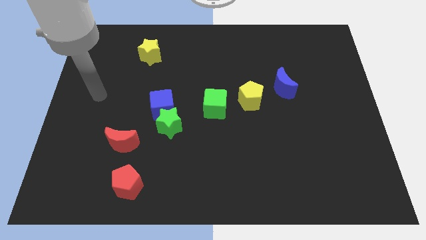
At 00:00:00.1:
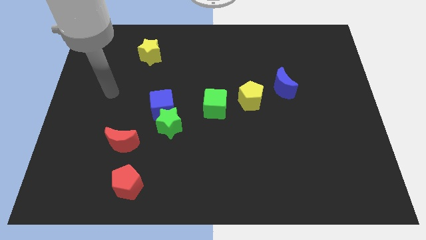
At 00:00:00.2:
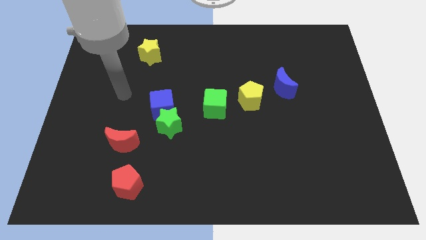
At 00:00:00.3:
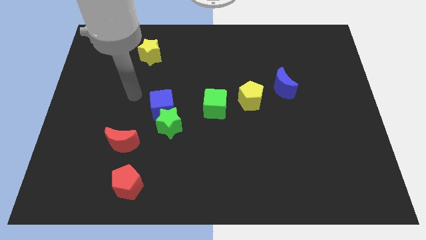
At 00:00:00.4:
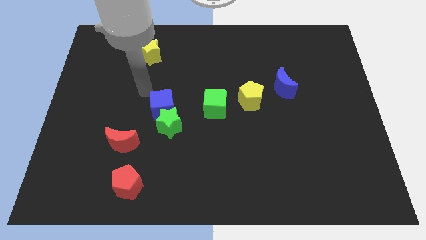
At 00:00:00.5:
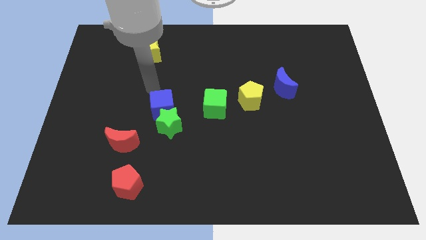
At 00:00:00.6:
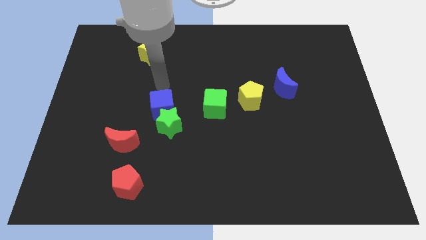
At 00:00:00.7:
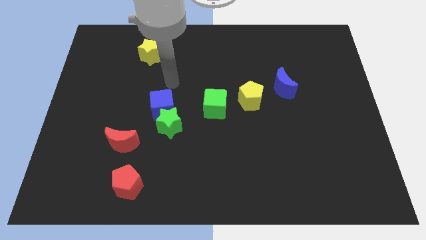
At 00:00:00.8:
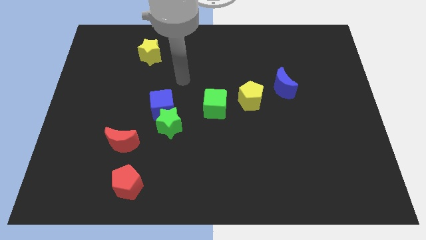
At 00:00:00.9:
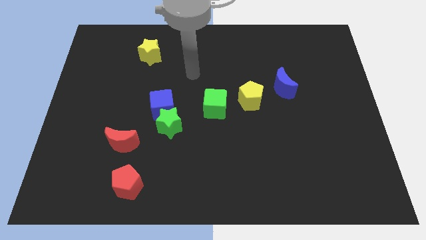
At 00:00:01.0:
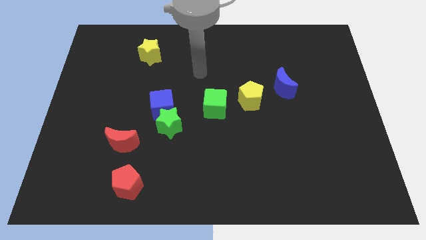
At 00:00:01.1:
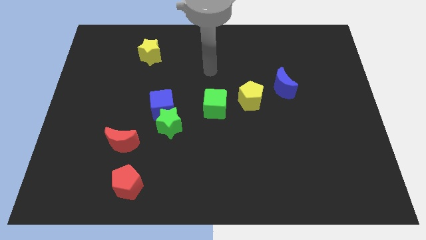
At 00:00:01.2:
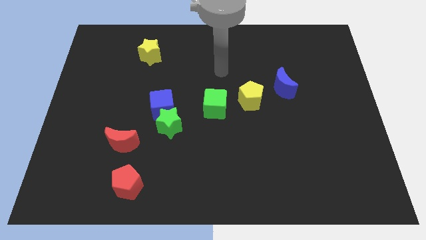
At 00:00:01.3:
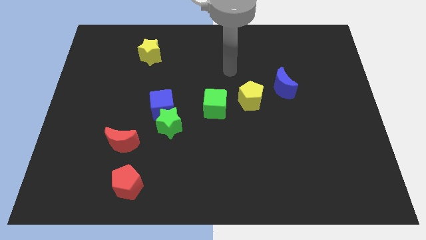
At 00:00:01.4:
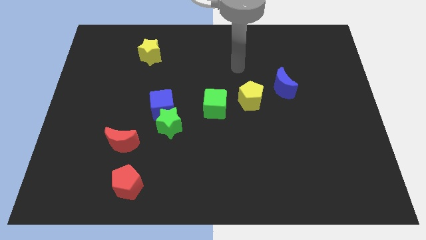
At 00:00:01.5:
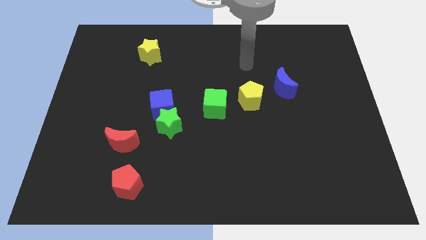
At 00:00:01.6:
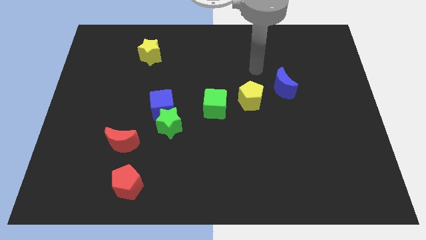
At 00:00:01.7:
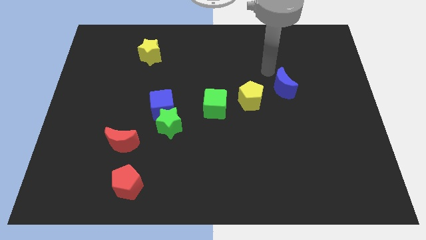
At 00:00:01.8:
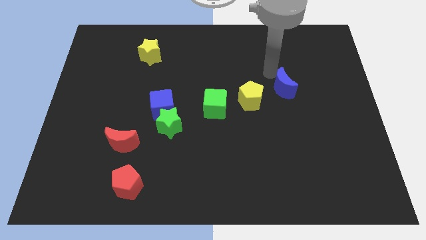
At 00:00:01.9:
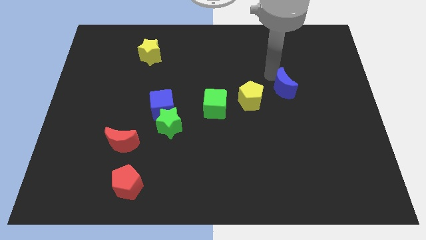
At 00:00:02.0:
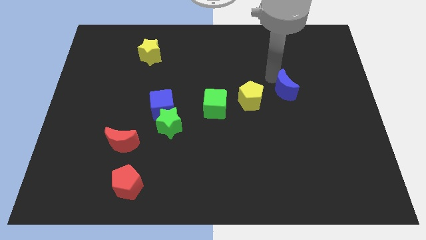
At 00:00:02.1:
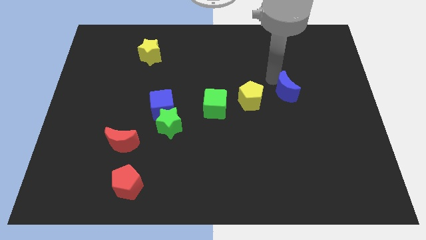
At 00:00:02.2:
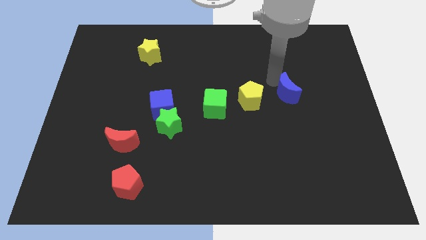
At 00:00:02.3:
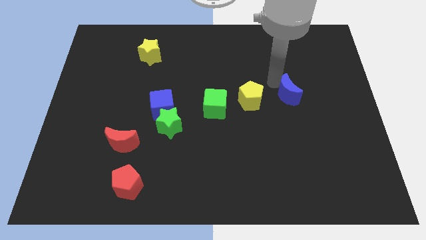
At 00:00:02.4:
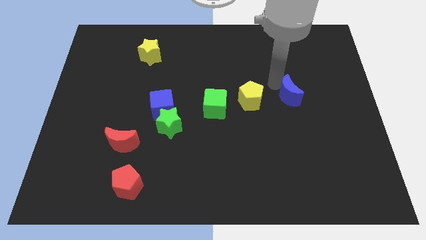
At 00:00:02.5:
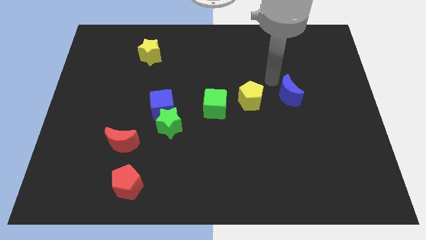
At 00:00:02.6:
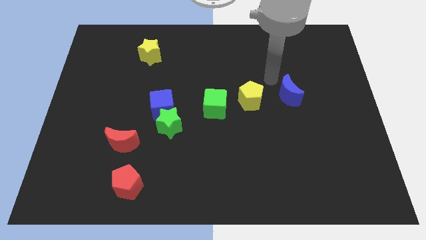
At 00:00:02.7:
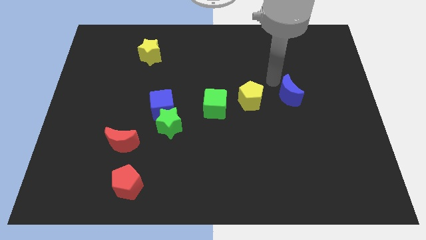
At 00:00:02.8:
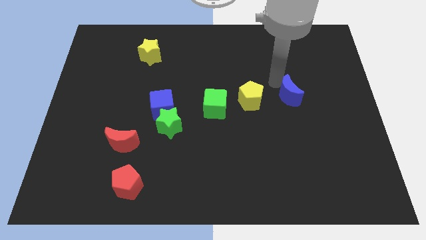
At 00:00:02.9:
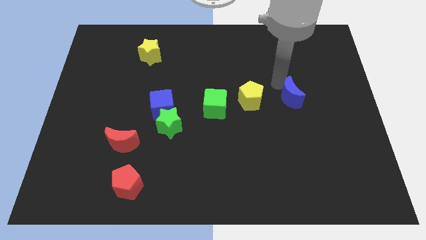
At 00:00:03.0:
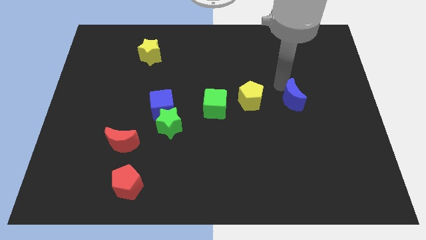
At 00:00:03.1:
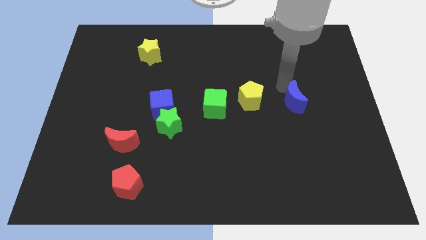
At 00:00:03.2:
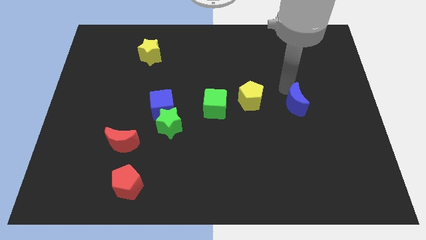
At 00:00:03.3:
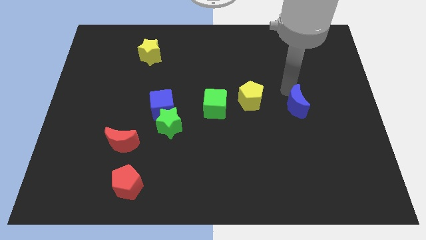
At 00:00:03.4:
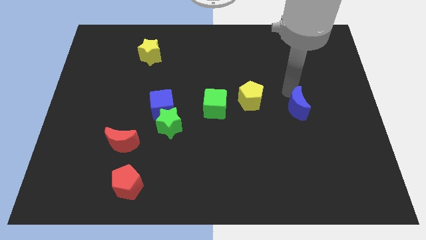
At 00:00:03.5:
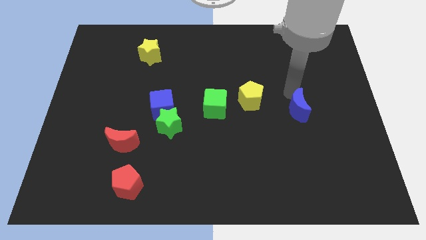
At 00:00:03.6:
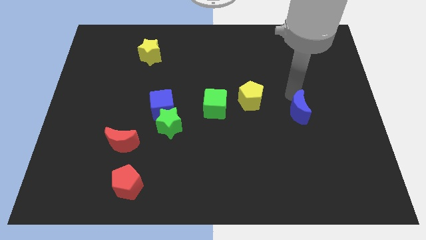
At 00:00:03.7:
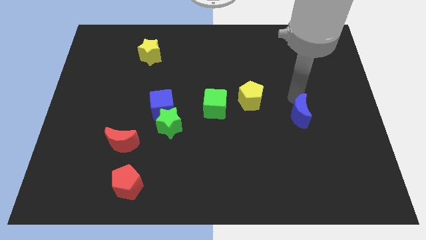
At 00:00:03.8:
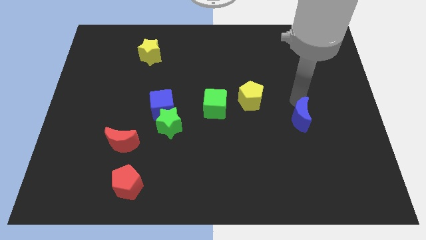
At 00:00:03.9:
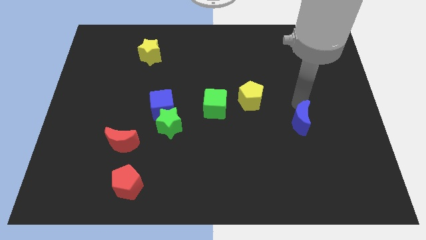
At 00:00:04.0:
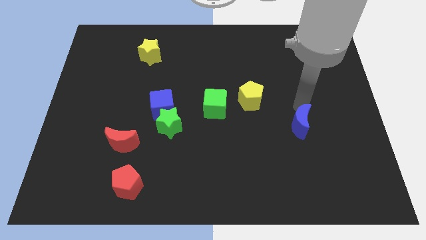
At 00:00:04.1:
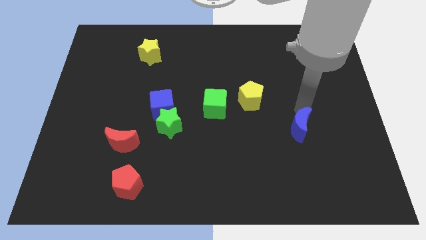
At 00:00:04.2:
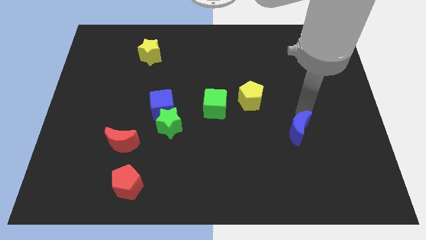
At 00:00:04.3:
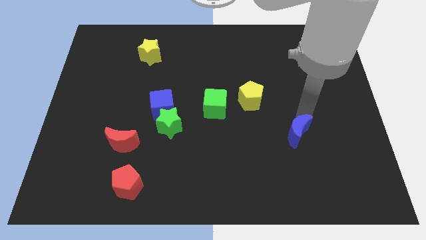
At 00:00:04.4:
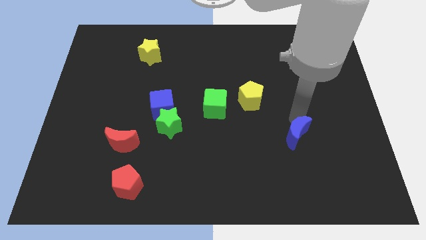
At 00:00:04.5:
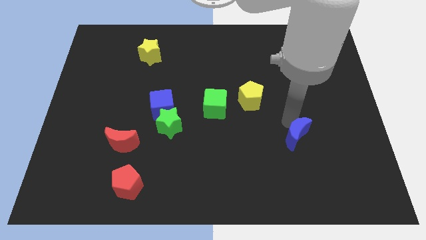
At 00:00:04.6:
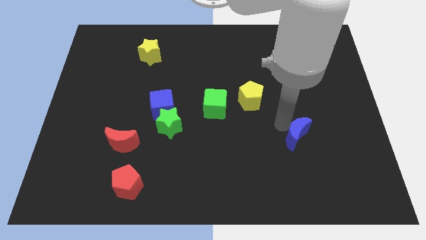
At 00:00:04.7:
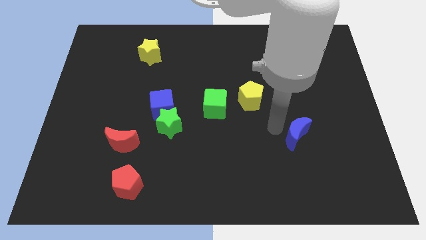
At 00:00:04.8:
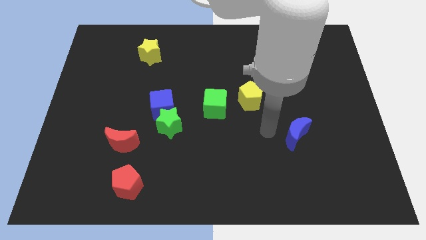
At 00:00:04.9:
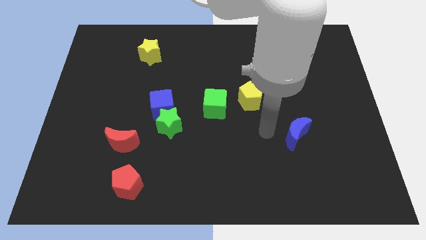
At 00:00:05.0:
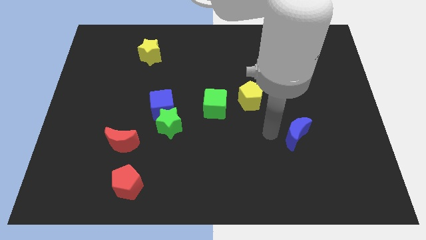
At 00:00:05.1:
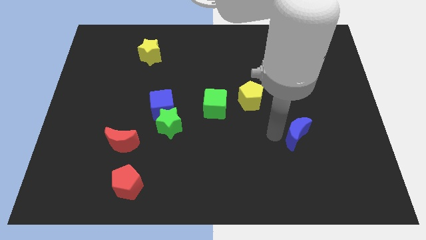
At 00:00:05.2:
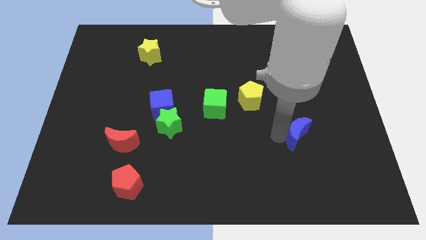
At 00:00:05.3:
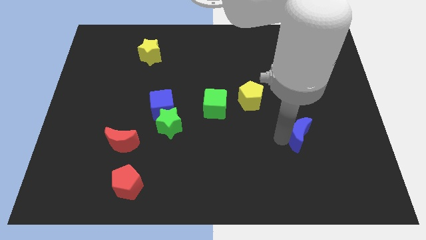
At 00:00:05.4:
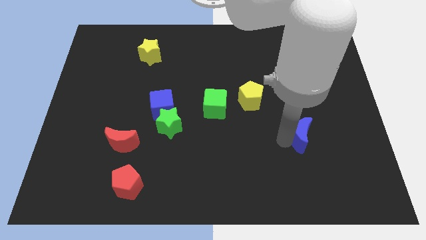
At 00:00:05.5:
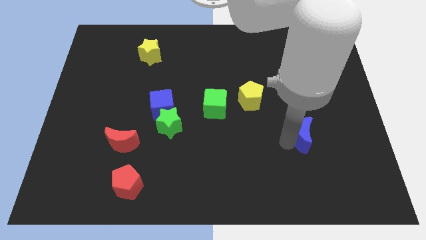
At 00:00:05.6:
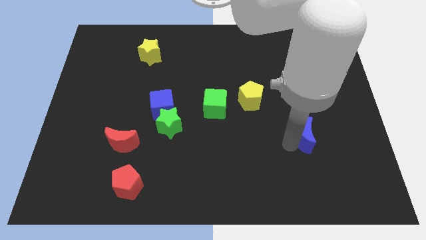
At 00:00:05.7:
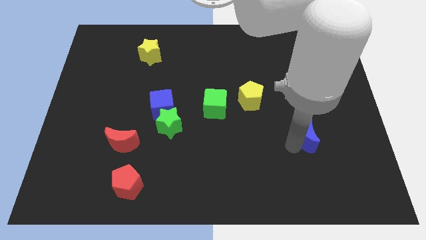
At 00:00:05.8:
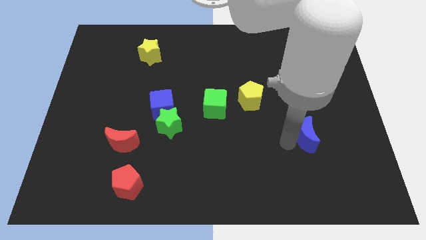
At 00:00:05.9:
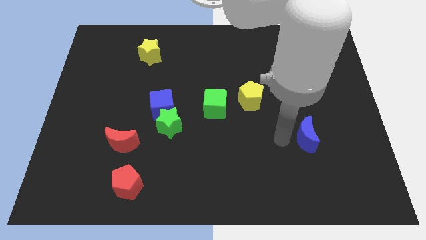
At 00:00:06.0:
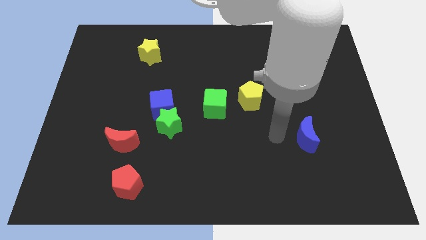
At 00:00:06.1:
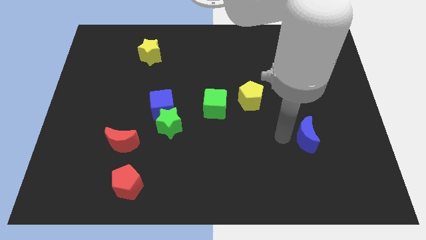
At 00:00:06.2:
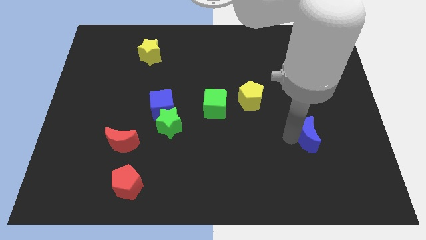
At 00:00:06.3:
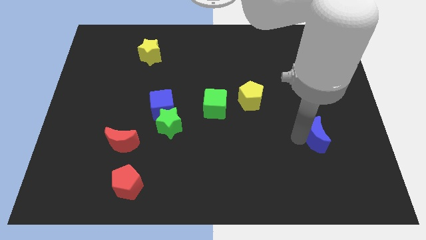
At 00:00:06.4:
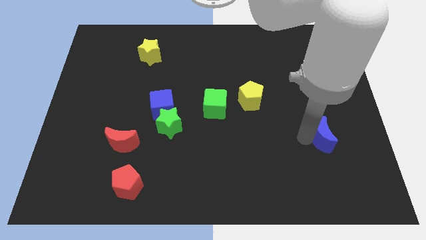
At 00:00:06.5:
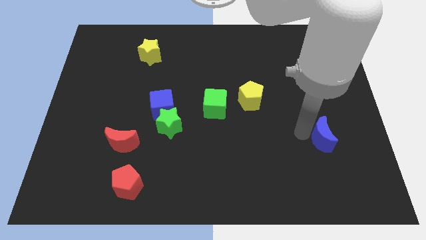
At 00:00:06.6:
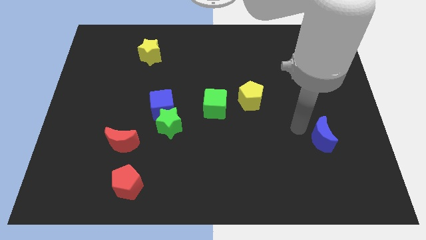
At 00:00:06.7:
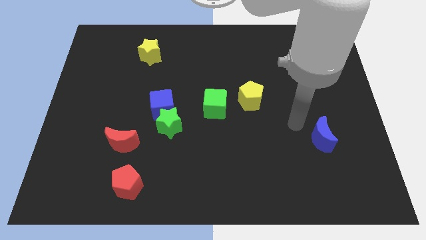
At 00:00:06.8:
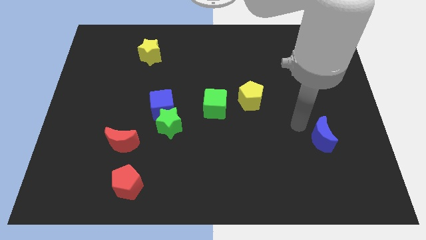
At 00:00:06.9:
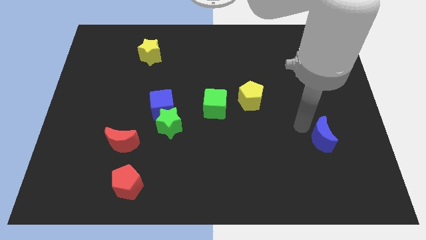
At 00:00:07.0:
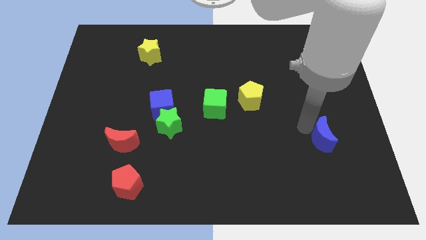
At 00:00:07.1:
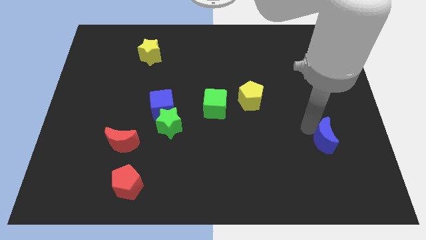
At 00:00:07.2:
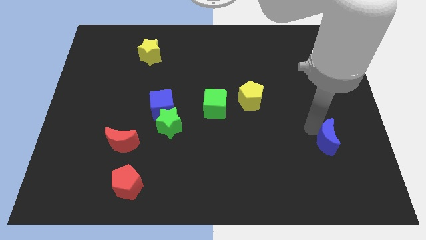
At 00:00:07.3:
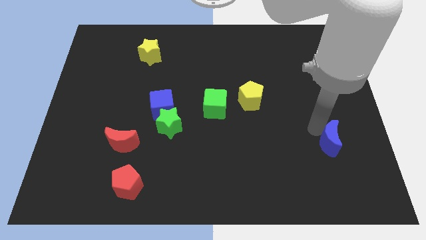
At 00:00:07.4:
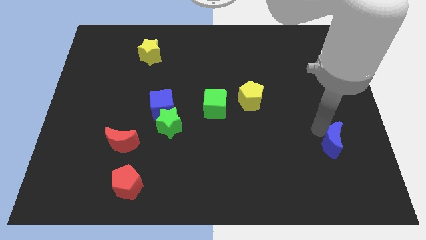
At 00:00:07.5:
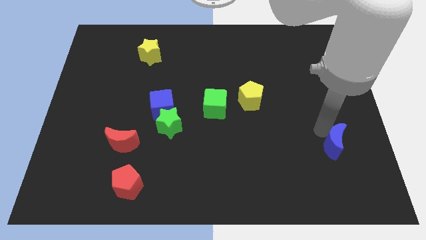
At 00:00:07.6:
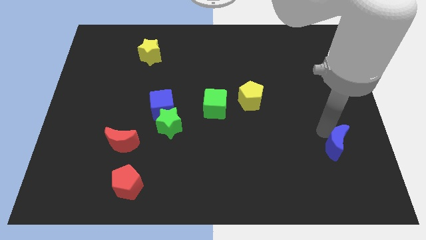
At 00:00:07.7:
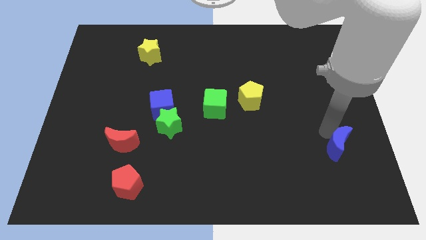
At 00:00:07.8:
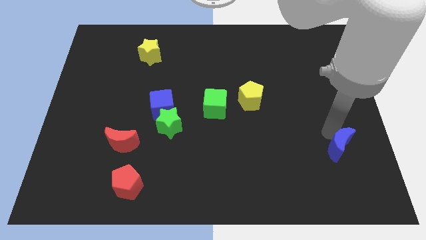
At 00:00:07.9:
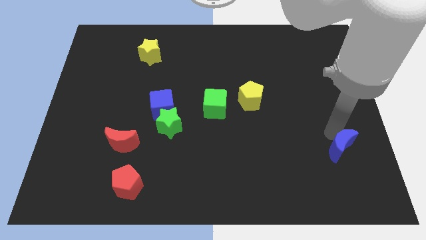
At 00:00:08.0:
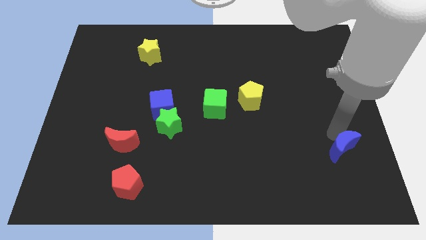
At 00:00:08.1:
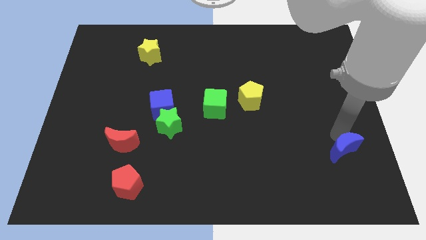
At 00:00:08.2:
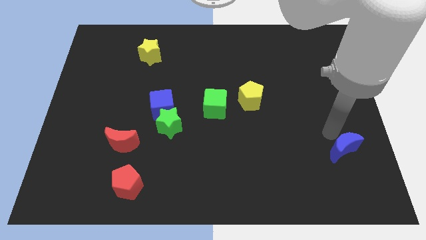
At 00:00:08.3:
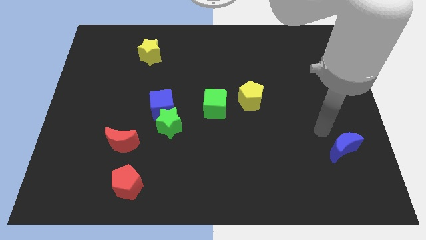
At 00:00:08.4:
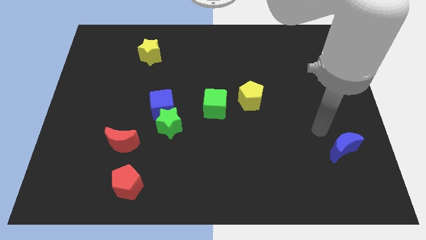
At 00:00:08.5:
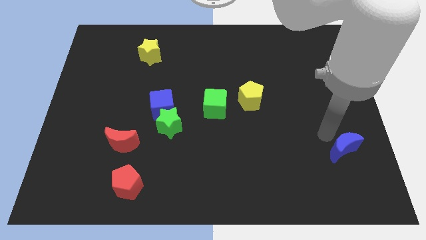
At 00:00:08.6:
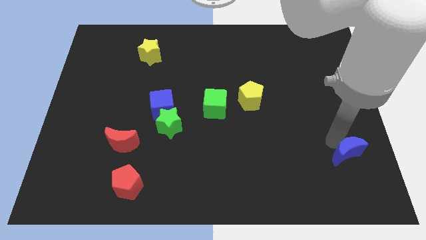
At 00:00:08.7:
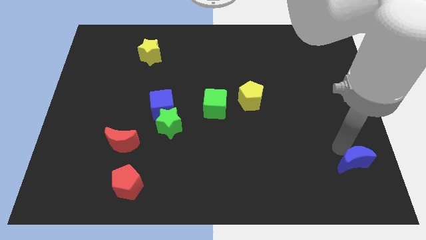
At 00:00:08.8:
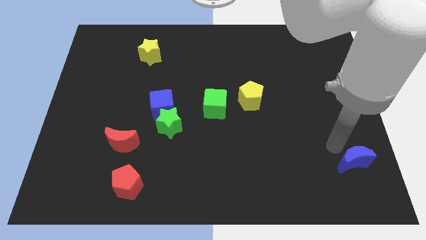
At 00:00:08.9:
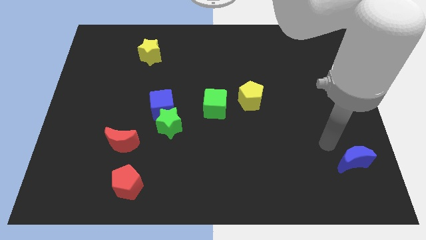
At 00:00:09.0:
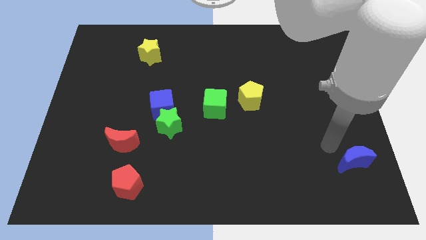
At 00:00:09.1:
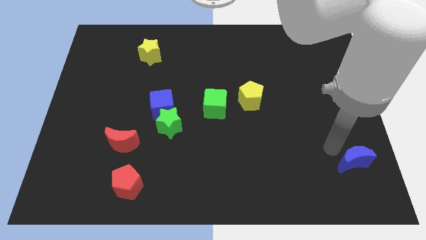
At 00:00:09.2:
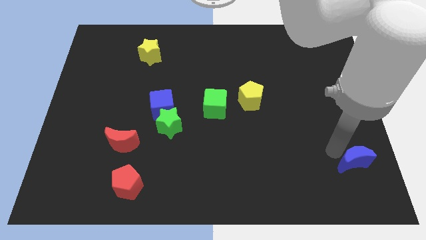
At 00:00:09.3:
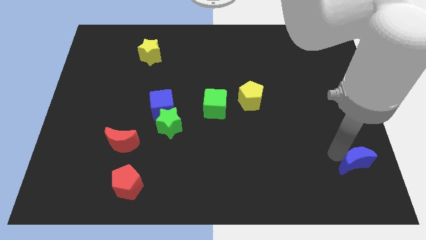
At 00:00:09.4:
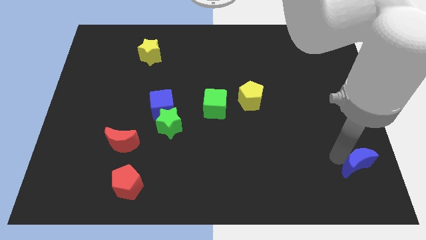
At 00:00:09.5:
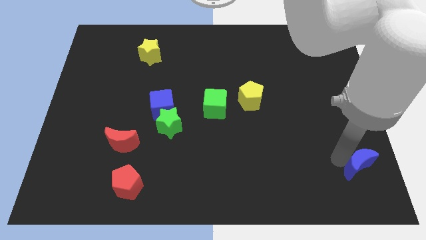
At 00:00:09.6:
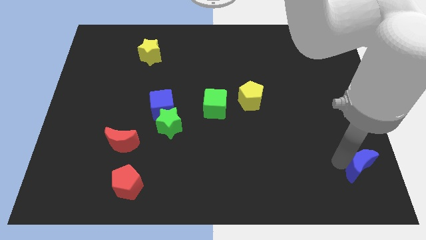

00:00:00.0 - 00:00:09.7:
put the blue moon to the bottom right
